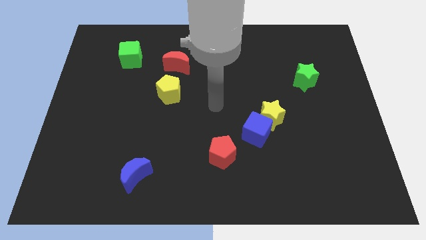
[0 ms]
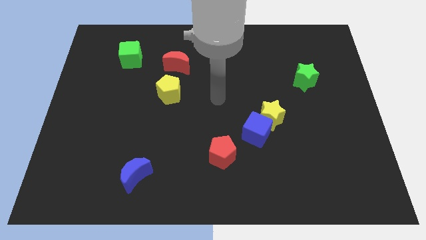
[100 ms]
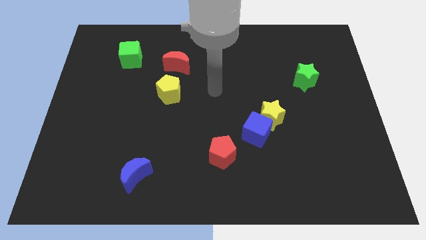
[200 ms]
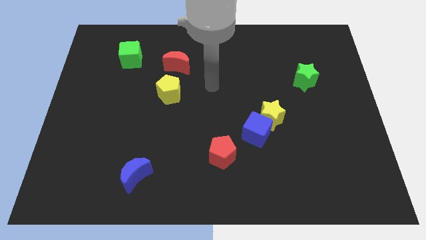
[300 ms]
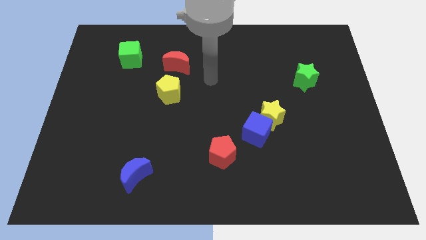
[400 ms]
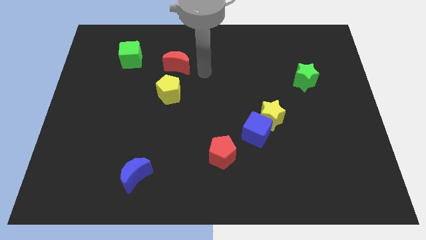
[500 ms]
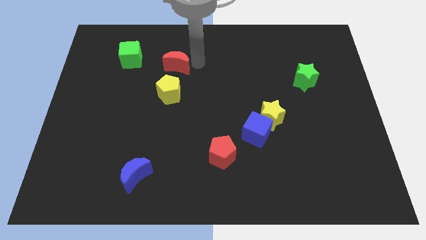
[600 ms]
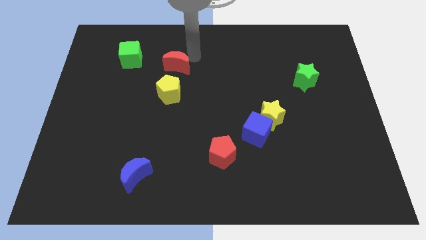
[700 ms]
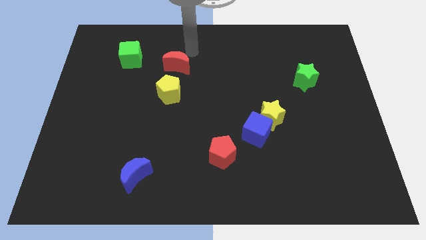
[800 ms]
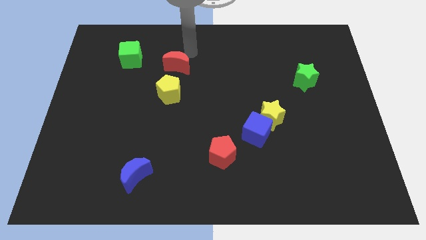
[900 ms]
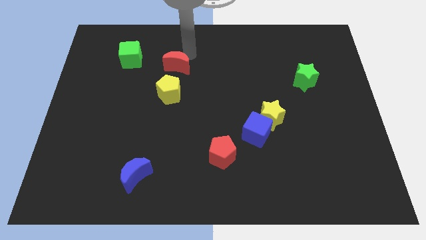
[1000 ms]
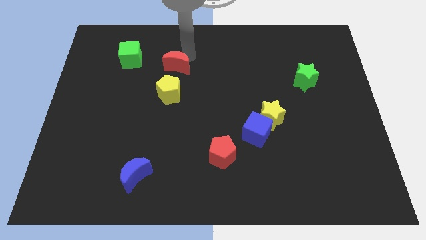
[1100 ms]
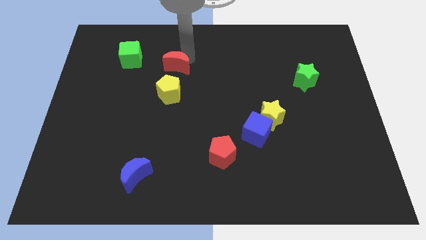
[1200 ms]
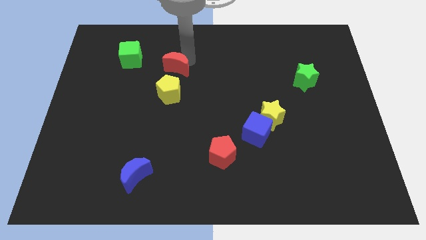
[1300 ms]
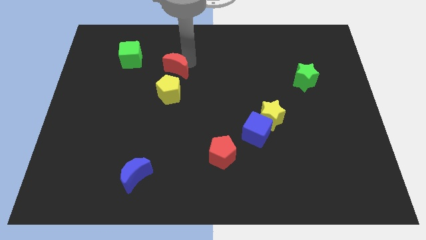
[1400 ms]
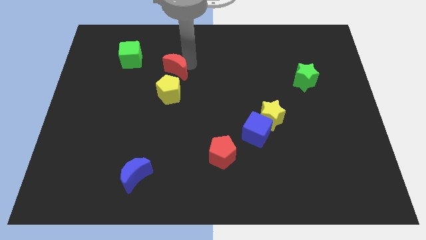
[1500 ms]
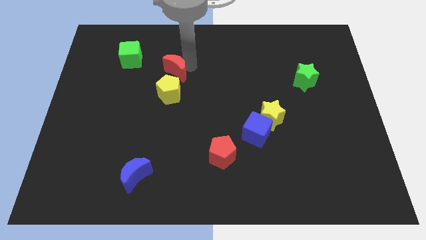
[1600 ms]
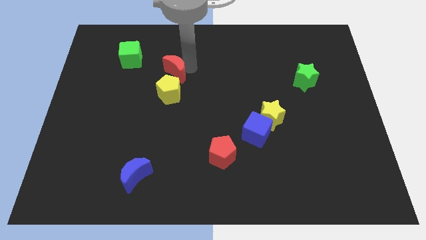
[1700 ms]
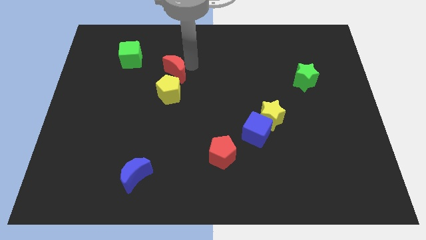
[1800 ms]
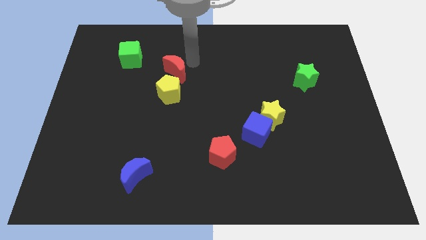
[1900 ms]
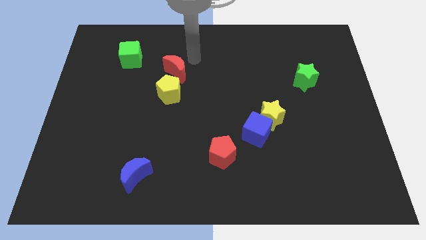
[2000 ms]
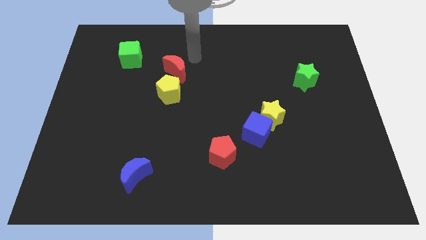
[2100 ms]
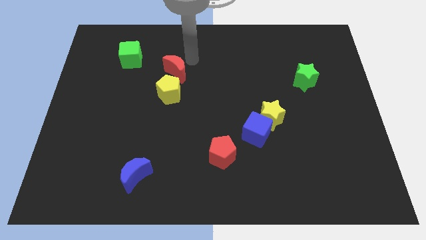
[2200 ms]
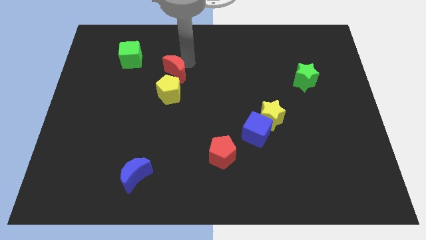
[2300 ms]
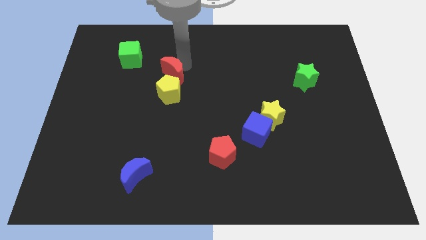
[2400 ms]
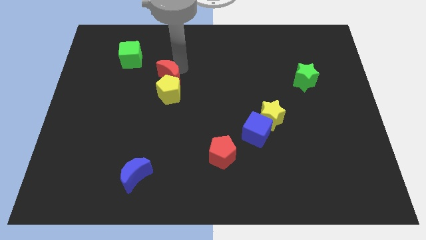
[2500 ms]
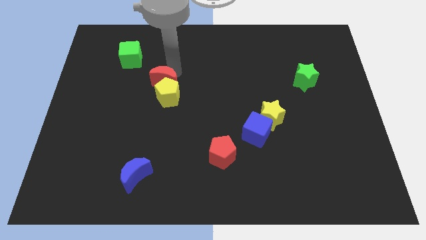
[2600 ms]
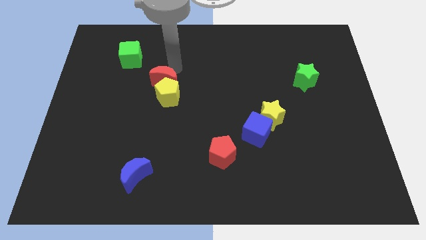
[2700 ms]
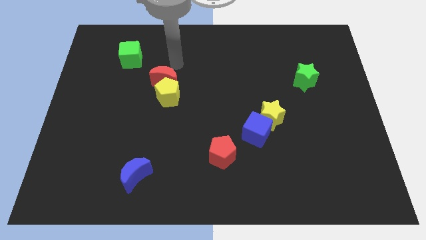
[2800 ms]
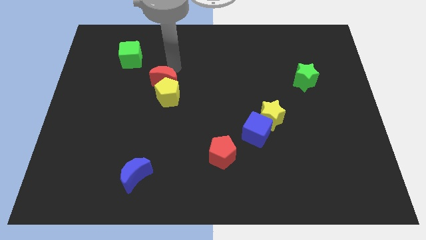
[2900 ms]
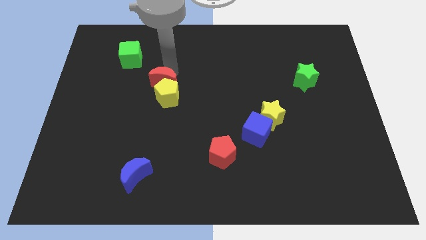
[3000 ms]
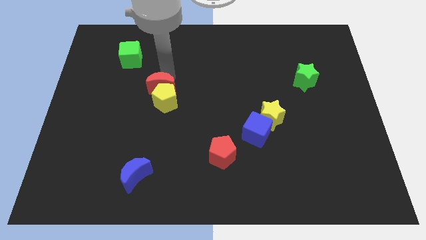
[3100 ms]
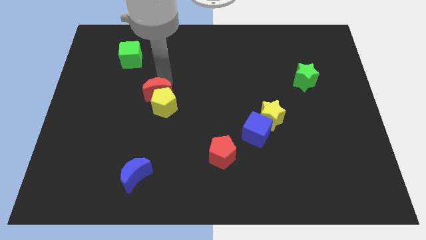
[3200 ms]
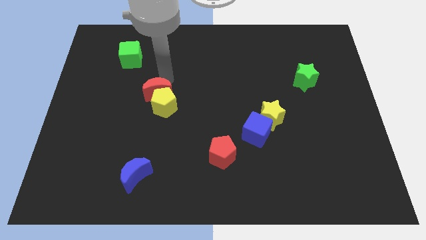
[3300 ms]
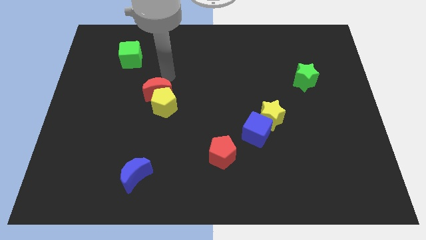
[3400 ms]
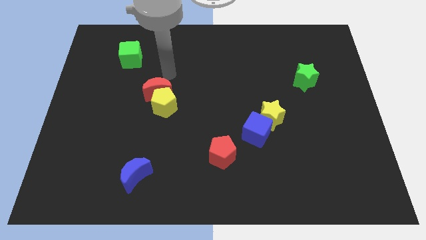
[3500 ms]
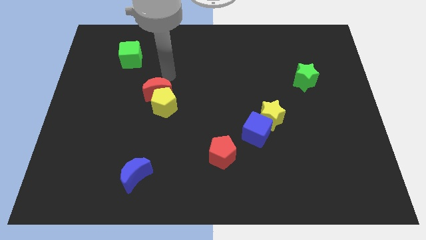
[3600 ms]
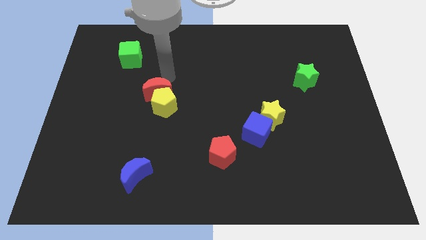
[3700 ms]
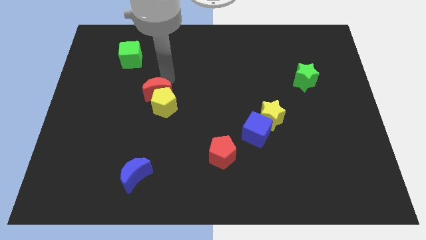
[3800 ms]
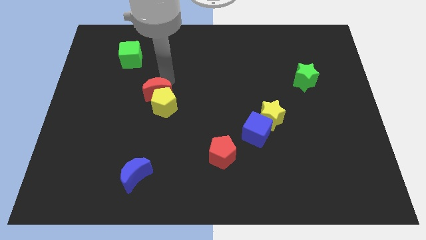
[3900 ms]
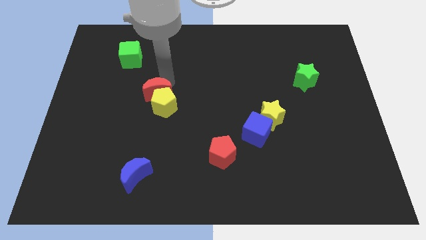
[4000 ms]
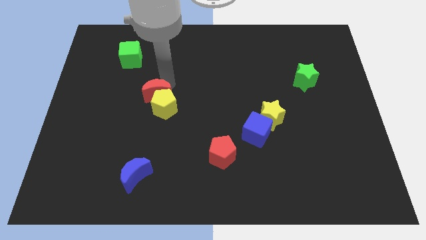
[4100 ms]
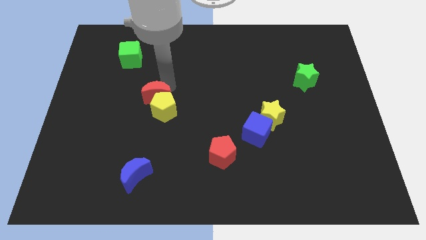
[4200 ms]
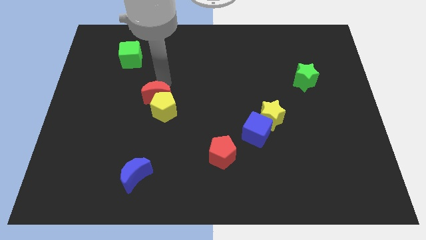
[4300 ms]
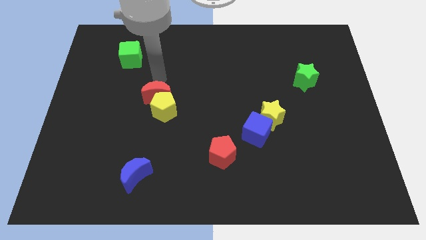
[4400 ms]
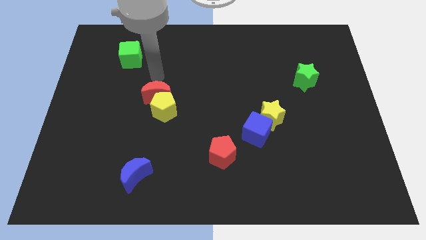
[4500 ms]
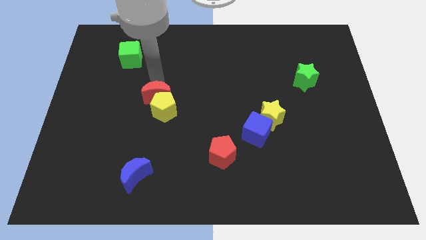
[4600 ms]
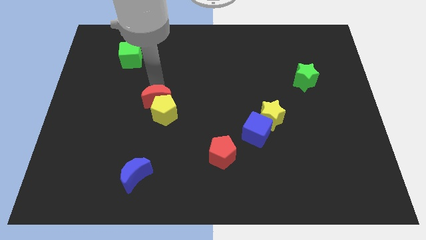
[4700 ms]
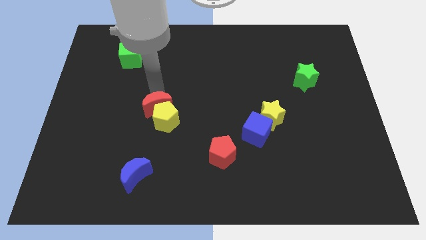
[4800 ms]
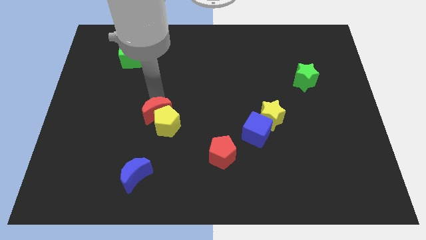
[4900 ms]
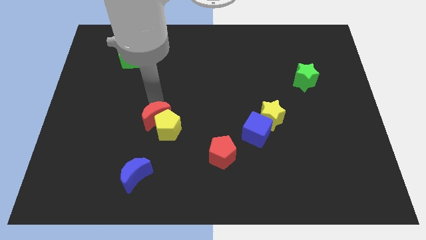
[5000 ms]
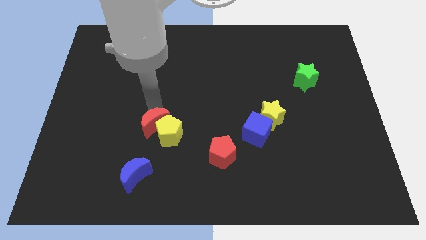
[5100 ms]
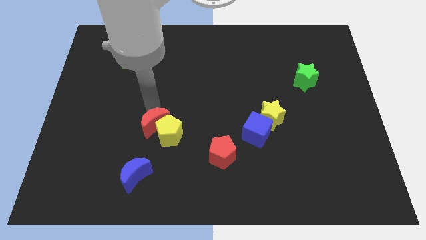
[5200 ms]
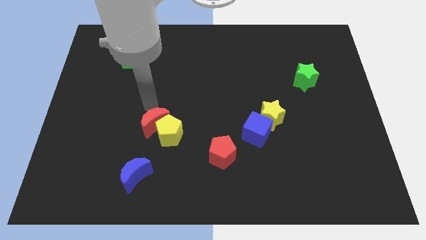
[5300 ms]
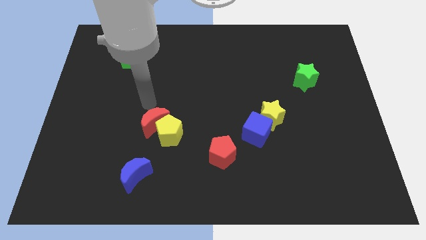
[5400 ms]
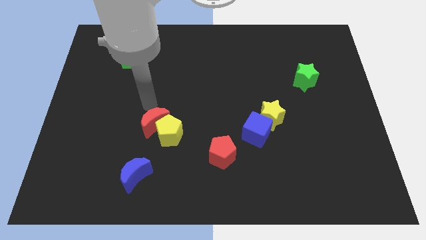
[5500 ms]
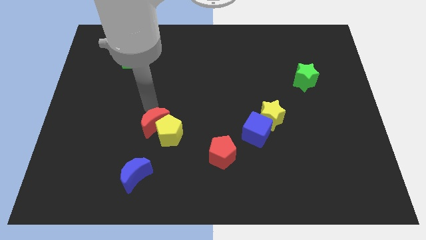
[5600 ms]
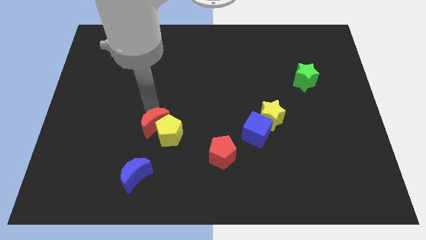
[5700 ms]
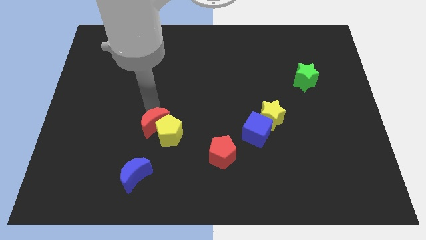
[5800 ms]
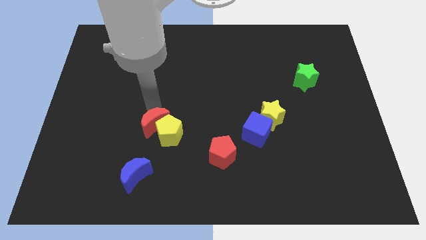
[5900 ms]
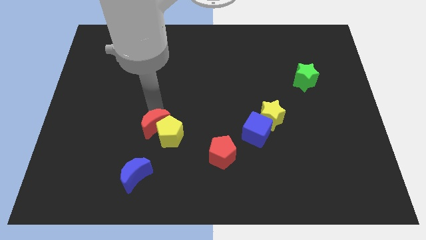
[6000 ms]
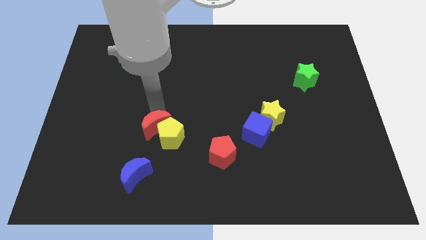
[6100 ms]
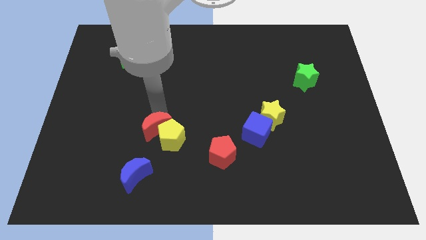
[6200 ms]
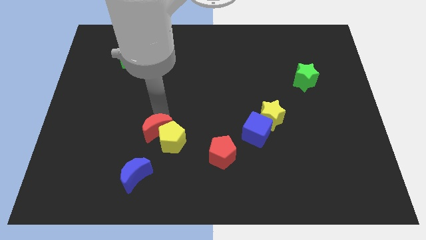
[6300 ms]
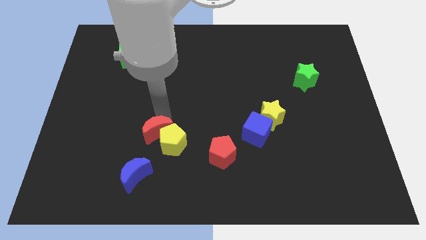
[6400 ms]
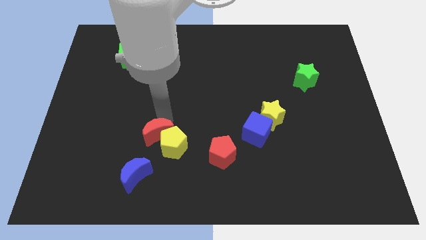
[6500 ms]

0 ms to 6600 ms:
push the red moon to the top right of the blue moon

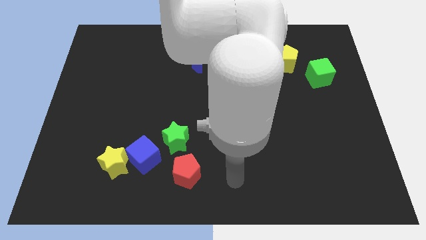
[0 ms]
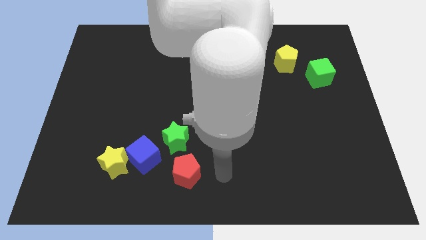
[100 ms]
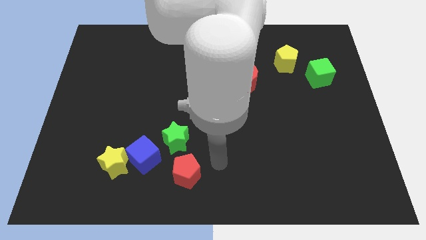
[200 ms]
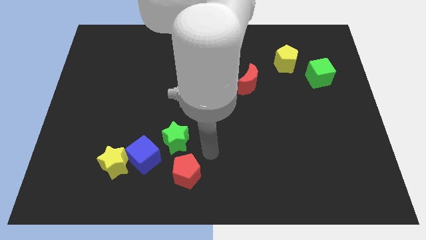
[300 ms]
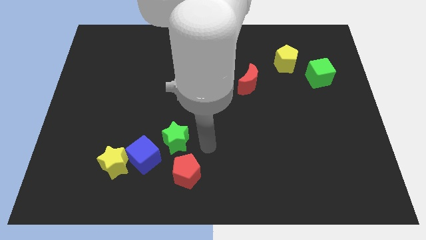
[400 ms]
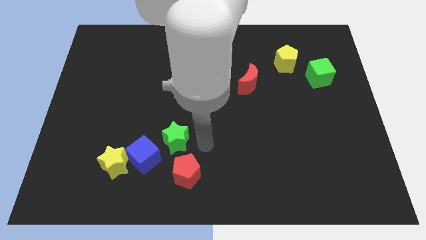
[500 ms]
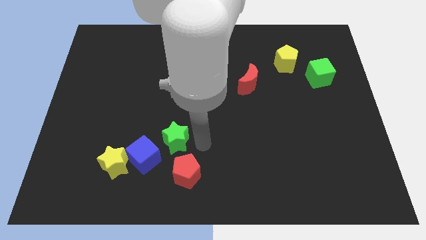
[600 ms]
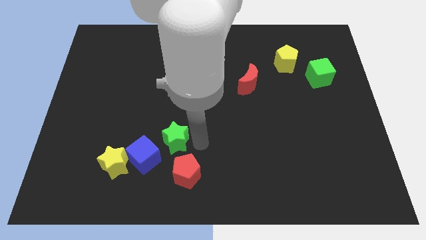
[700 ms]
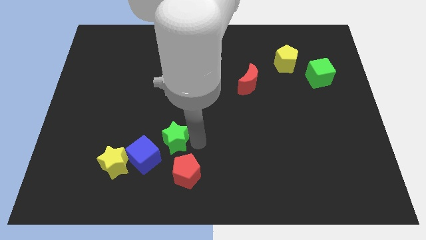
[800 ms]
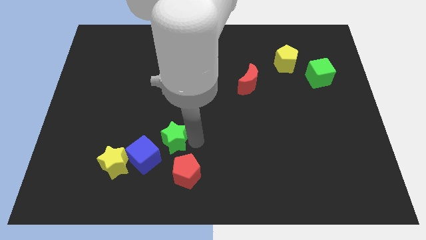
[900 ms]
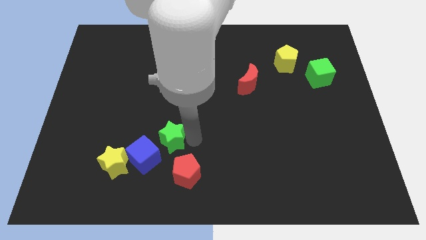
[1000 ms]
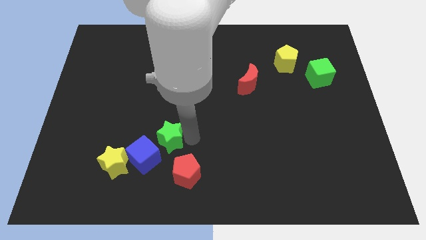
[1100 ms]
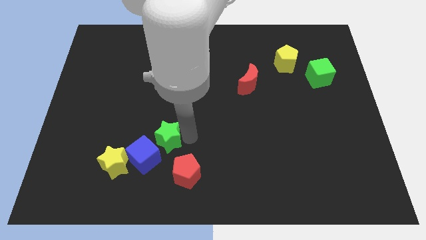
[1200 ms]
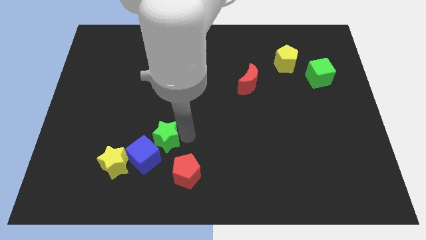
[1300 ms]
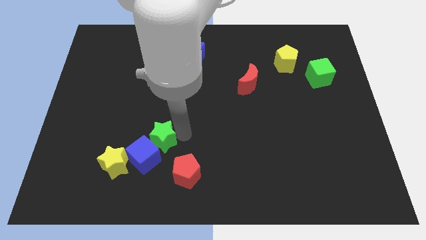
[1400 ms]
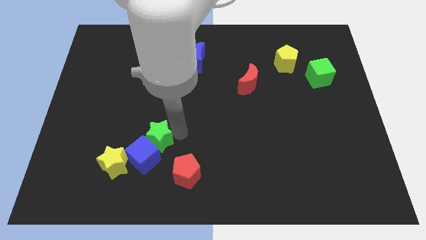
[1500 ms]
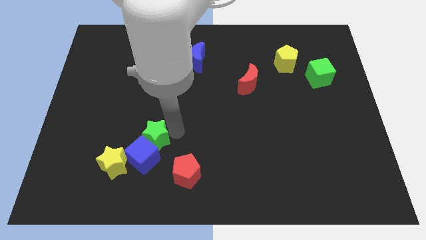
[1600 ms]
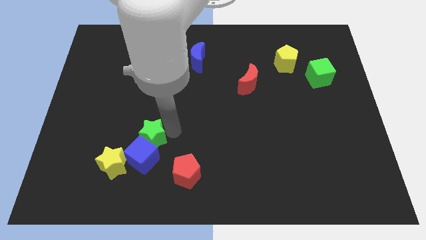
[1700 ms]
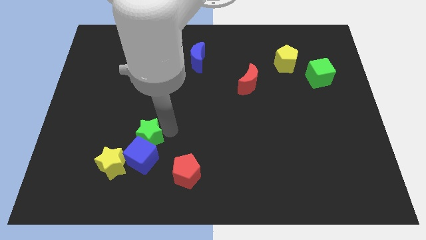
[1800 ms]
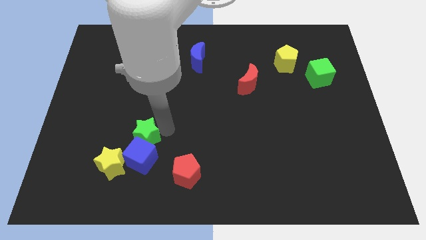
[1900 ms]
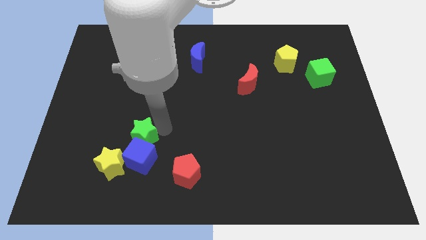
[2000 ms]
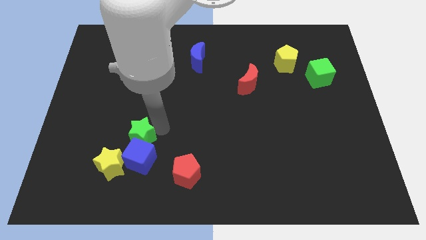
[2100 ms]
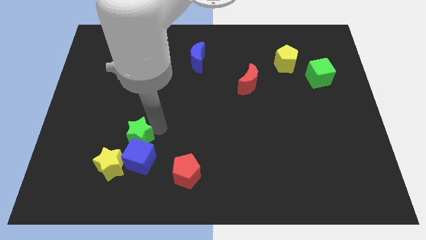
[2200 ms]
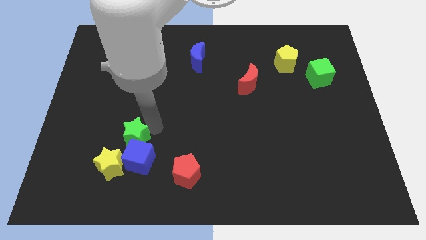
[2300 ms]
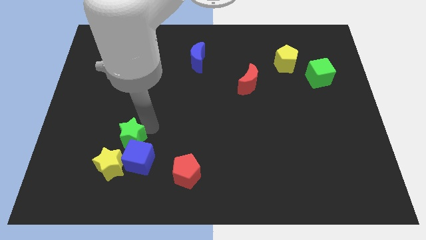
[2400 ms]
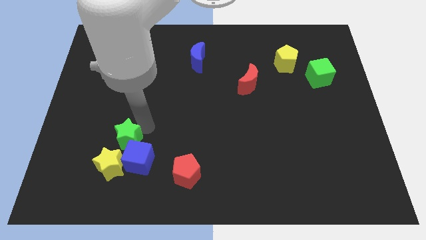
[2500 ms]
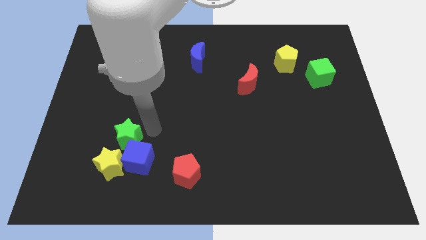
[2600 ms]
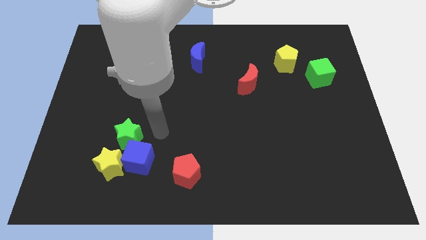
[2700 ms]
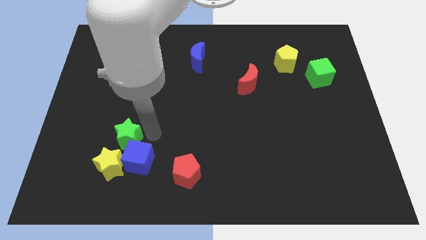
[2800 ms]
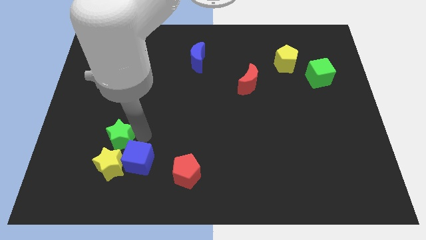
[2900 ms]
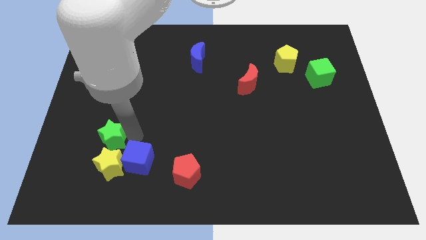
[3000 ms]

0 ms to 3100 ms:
slide the green star diagonally up and to the left of the yellow star
